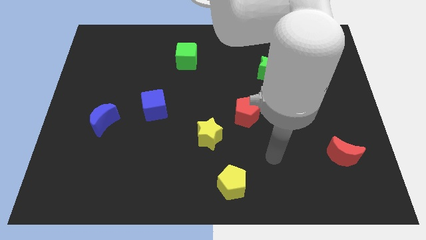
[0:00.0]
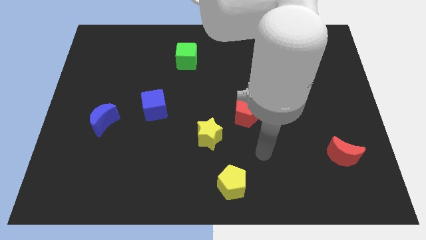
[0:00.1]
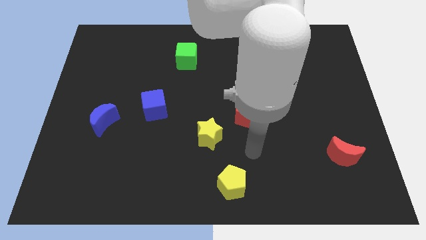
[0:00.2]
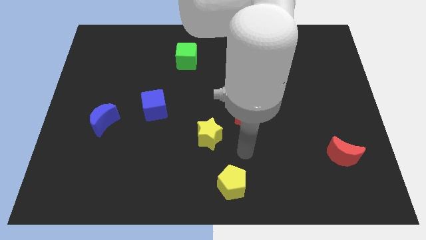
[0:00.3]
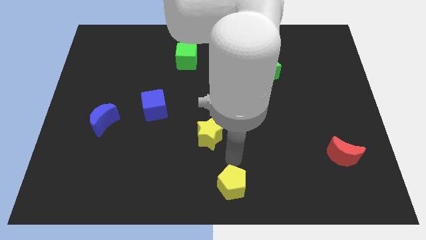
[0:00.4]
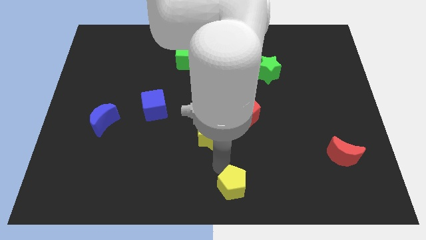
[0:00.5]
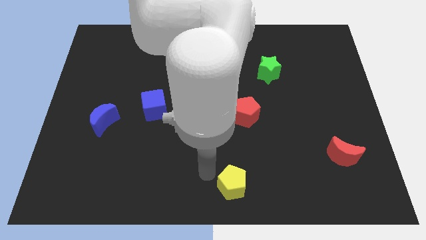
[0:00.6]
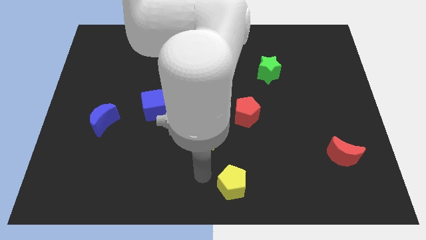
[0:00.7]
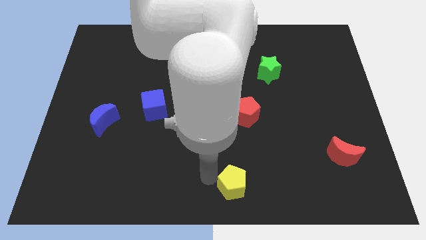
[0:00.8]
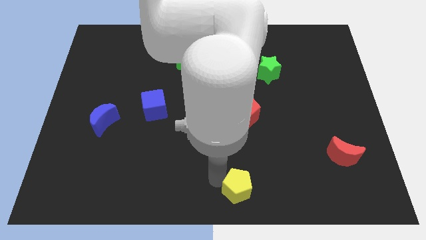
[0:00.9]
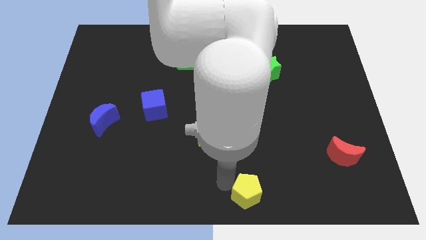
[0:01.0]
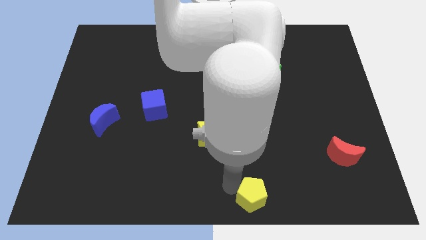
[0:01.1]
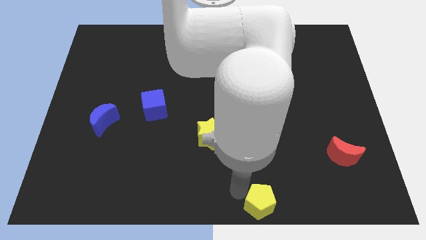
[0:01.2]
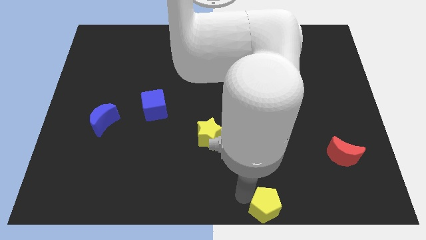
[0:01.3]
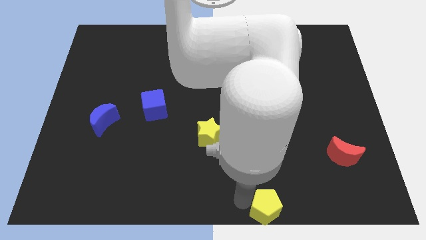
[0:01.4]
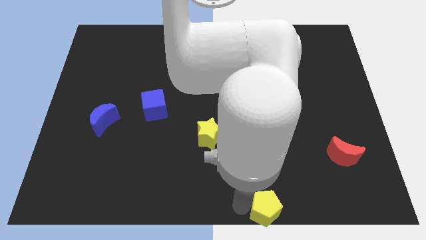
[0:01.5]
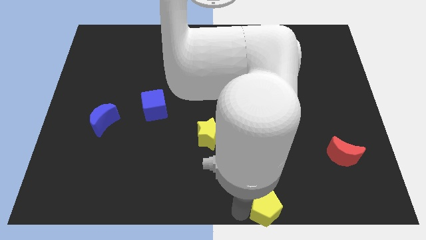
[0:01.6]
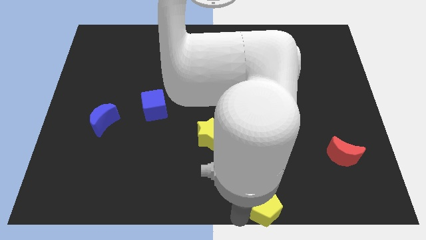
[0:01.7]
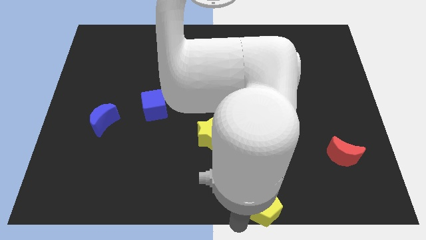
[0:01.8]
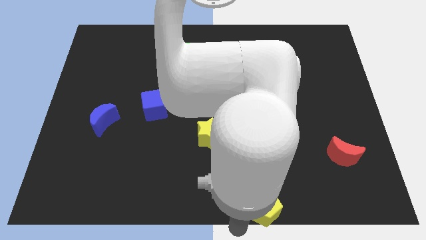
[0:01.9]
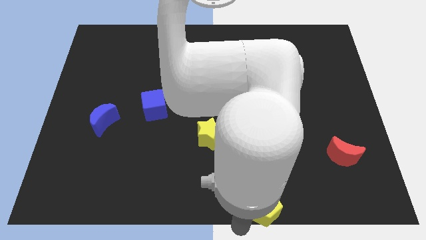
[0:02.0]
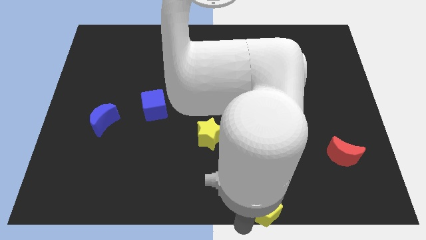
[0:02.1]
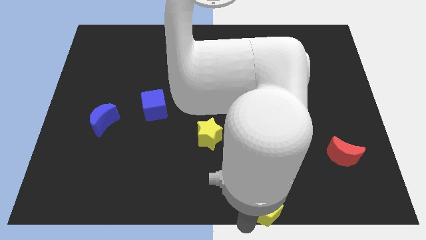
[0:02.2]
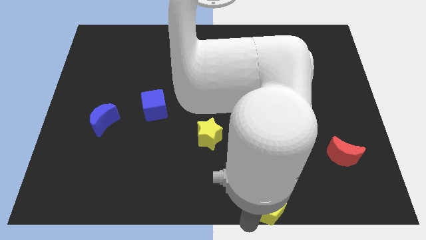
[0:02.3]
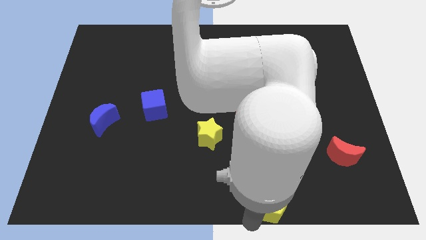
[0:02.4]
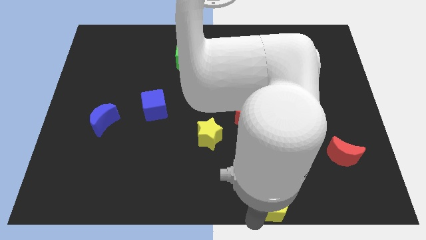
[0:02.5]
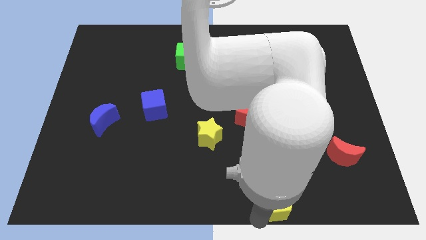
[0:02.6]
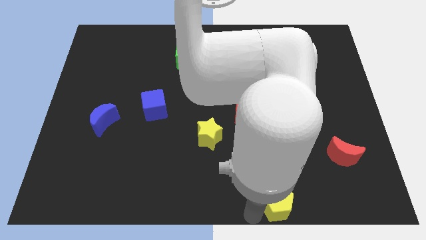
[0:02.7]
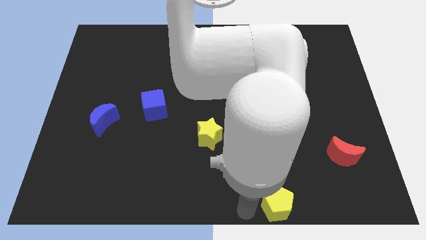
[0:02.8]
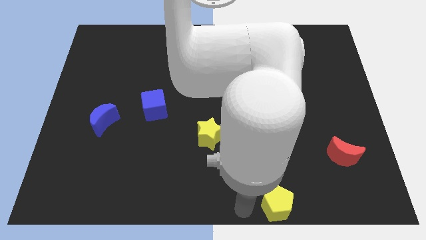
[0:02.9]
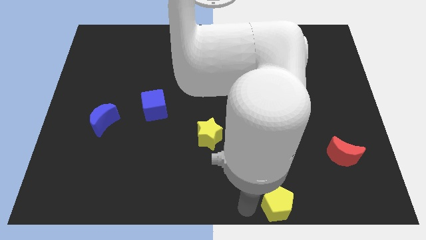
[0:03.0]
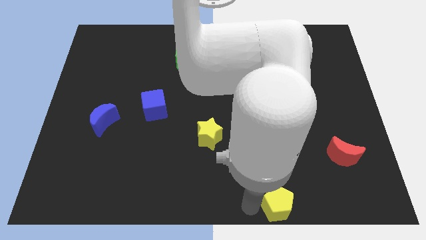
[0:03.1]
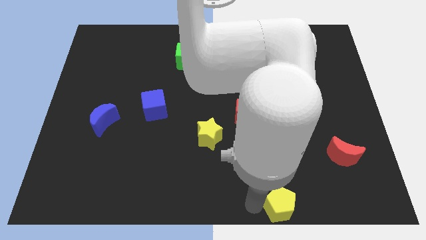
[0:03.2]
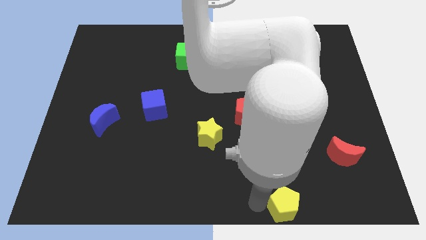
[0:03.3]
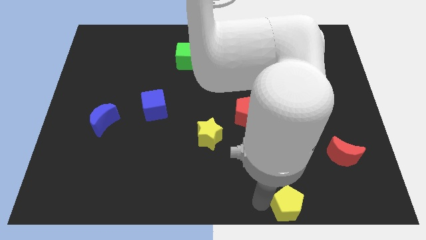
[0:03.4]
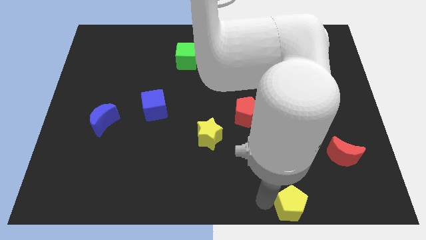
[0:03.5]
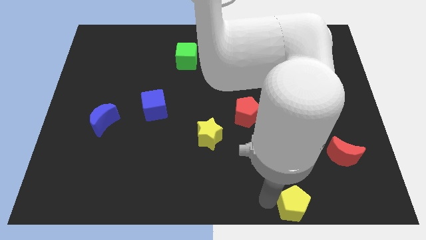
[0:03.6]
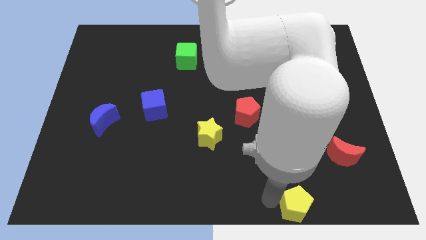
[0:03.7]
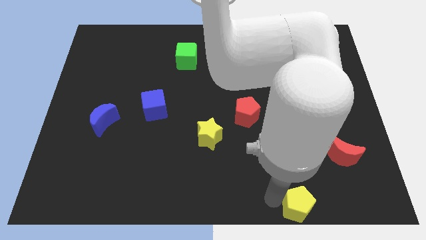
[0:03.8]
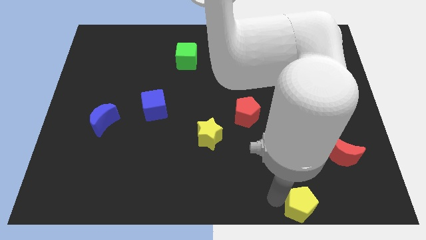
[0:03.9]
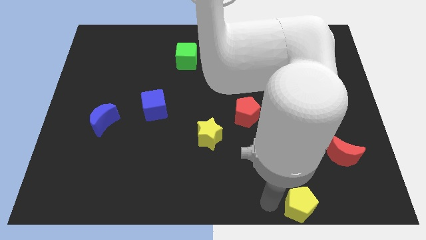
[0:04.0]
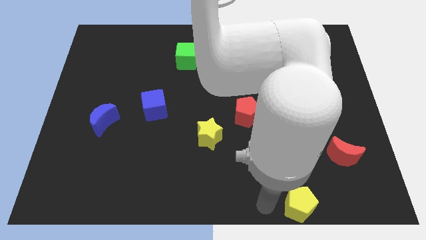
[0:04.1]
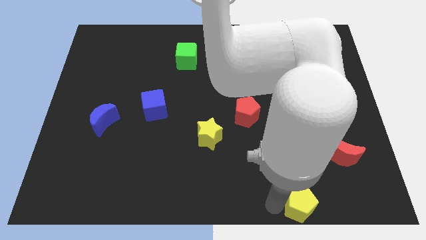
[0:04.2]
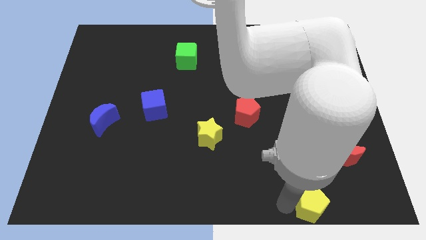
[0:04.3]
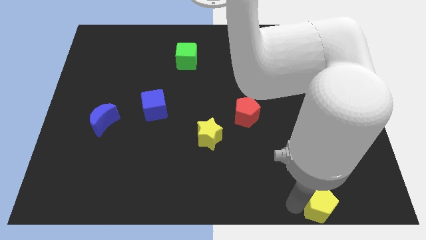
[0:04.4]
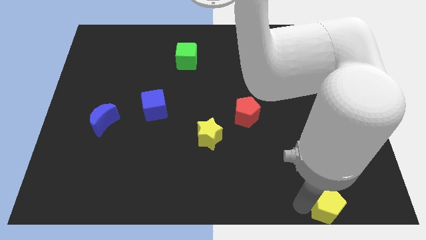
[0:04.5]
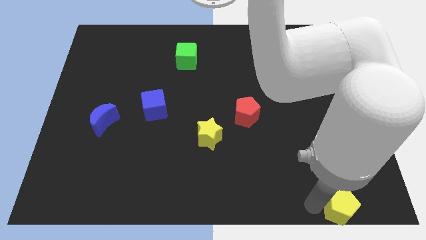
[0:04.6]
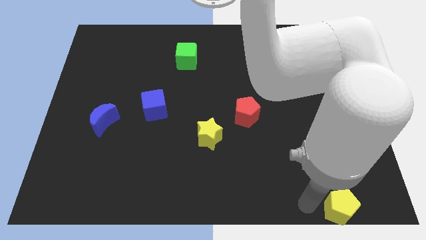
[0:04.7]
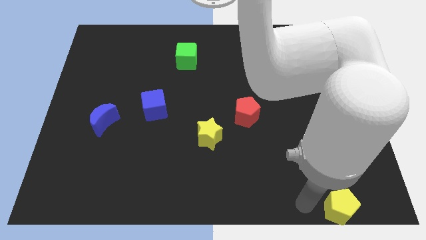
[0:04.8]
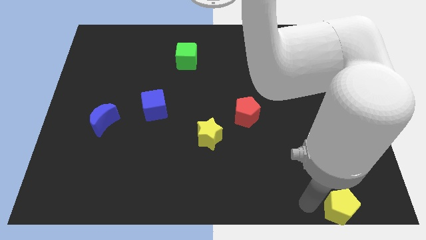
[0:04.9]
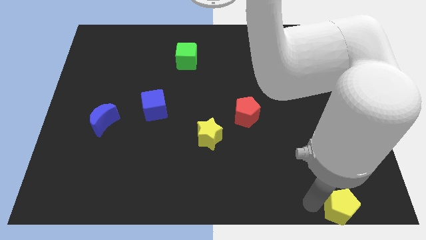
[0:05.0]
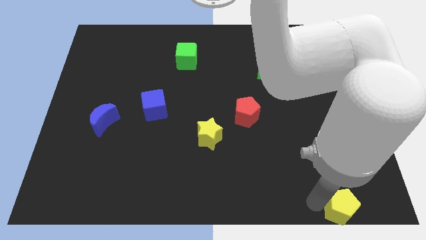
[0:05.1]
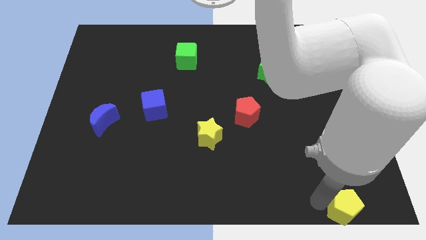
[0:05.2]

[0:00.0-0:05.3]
slide the yellow pentagon to the lower right corner

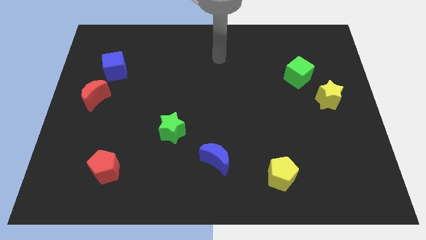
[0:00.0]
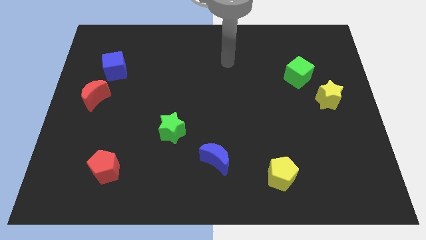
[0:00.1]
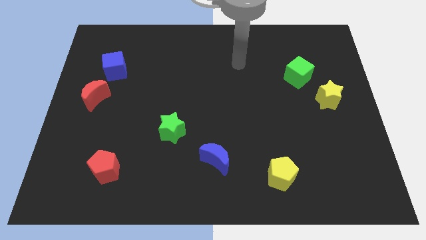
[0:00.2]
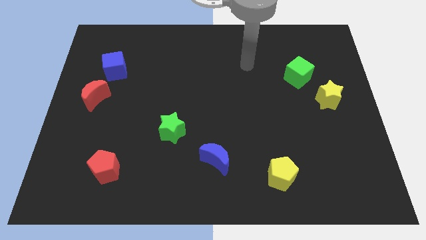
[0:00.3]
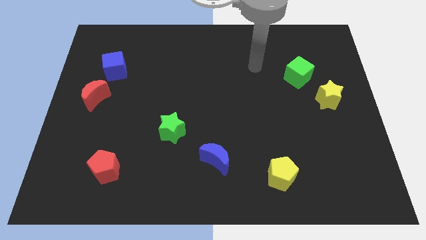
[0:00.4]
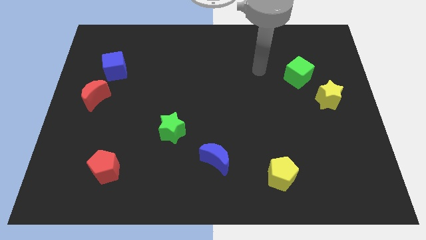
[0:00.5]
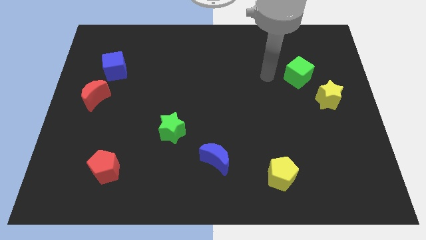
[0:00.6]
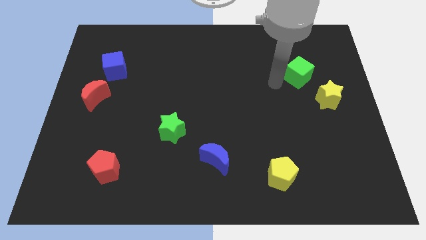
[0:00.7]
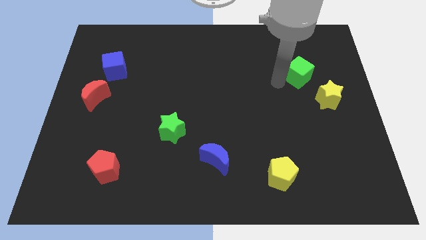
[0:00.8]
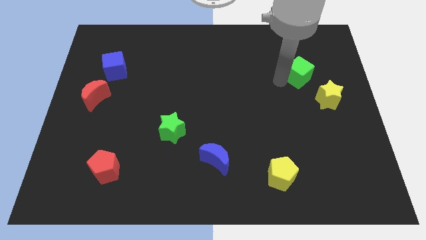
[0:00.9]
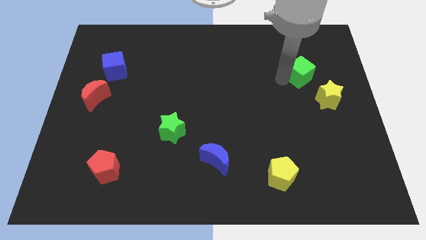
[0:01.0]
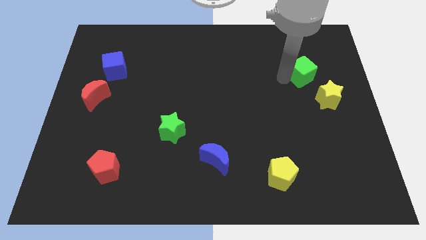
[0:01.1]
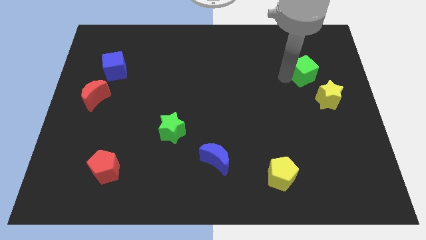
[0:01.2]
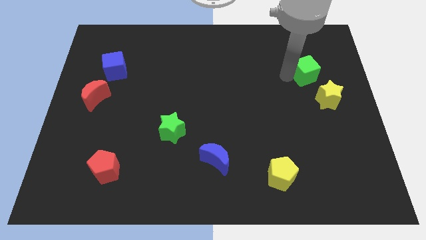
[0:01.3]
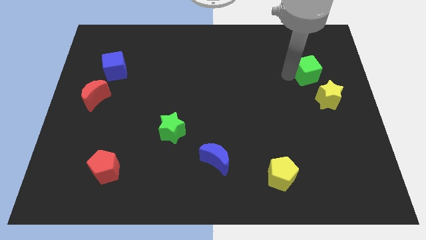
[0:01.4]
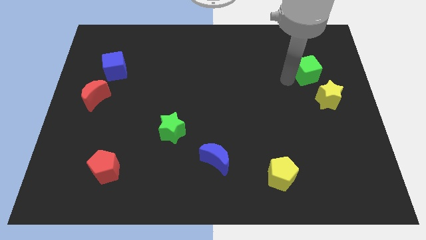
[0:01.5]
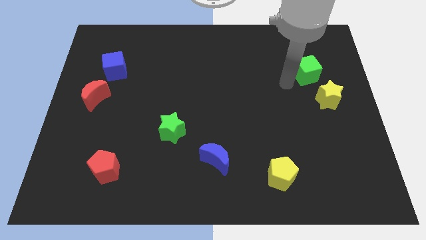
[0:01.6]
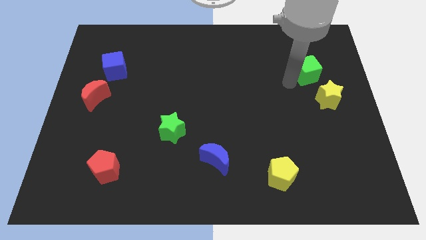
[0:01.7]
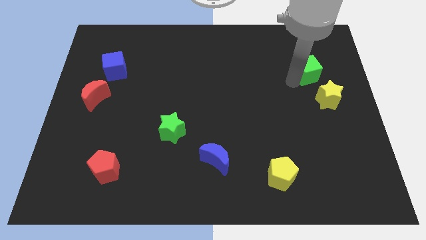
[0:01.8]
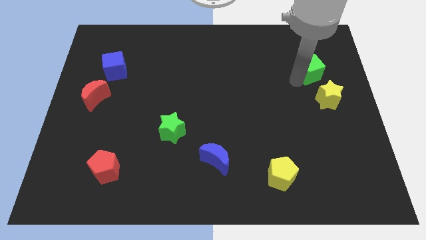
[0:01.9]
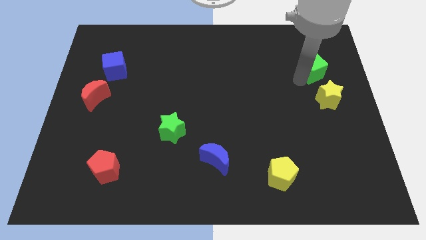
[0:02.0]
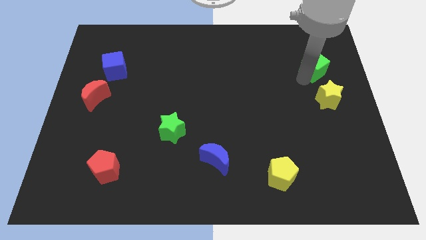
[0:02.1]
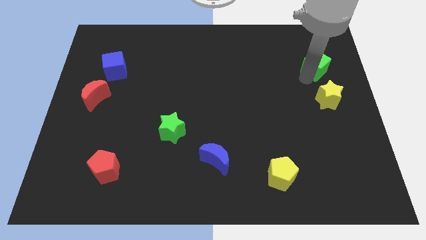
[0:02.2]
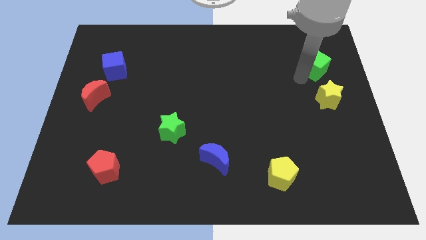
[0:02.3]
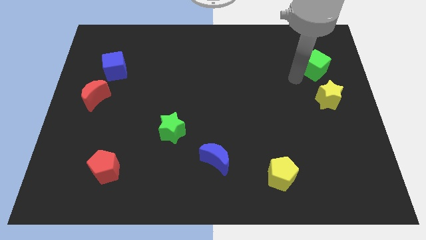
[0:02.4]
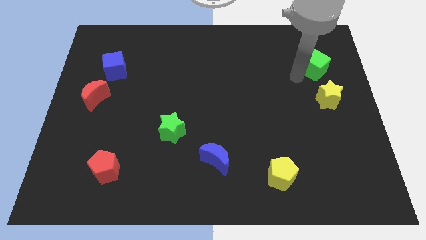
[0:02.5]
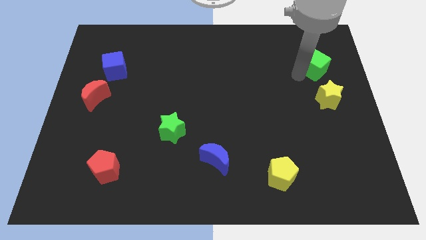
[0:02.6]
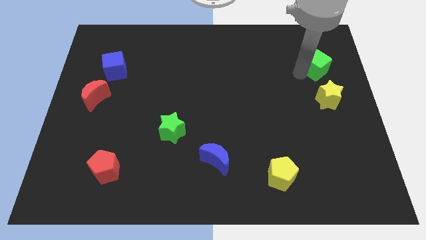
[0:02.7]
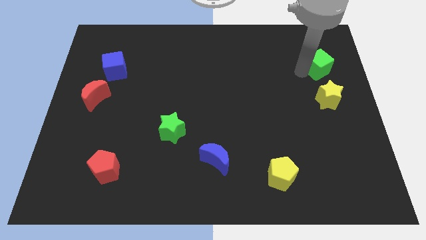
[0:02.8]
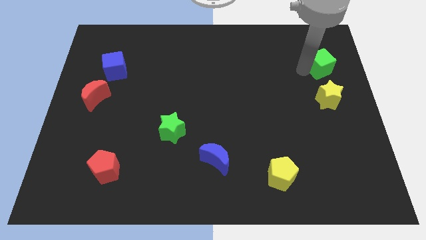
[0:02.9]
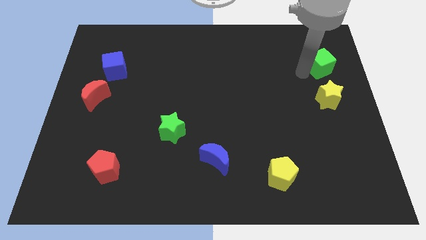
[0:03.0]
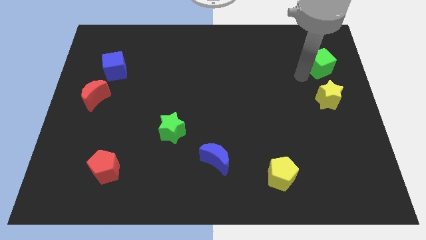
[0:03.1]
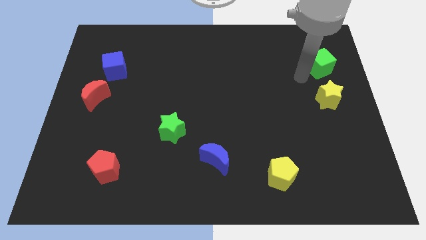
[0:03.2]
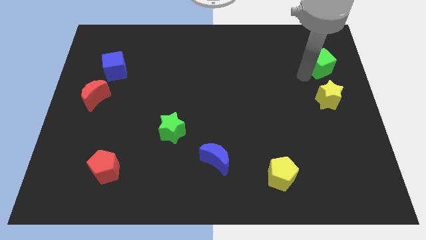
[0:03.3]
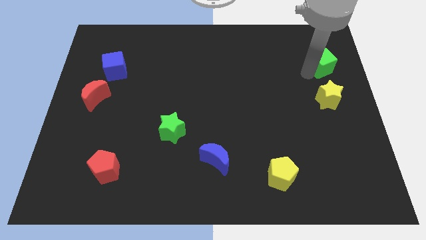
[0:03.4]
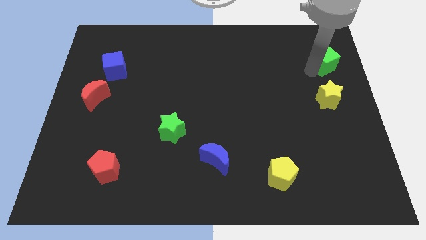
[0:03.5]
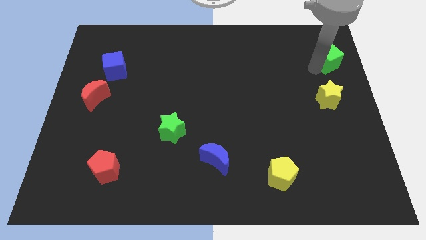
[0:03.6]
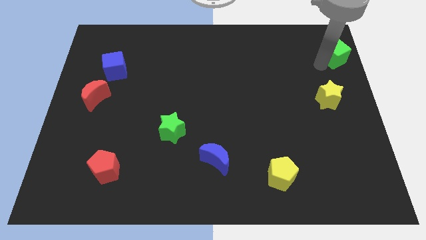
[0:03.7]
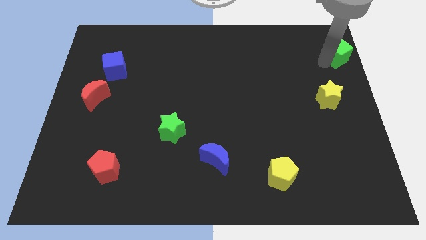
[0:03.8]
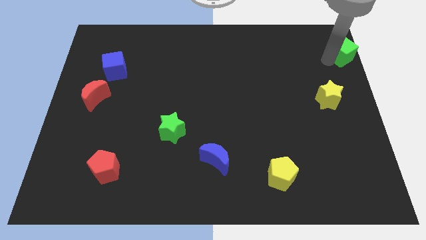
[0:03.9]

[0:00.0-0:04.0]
move the green cube to the top right of the board
